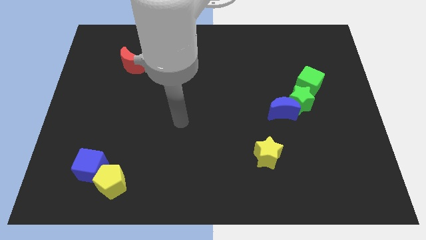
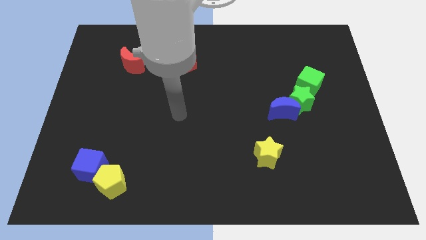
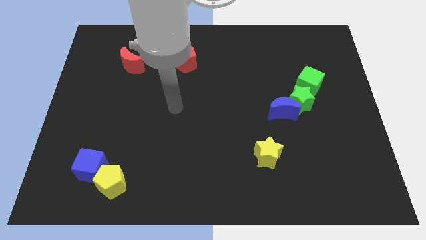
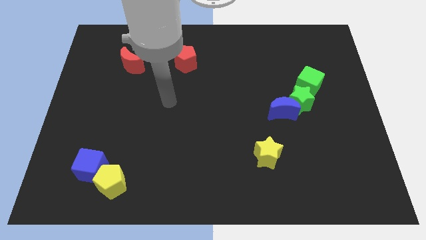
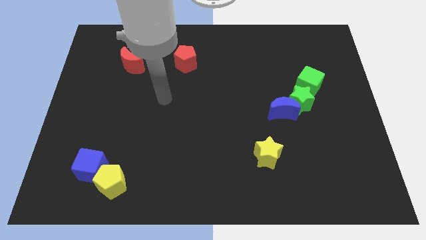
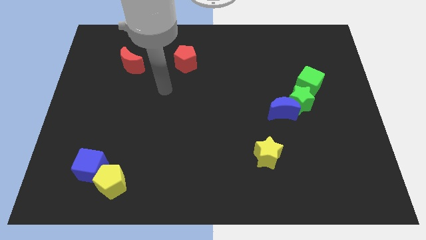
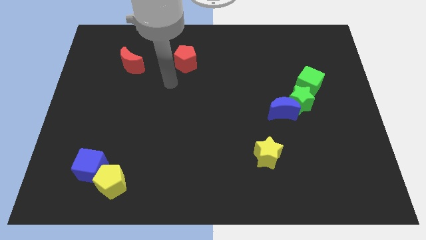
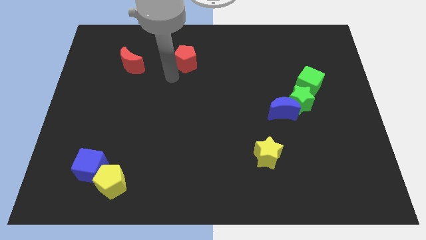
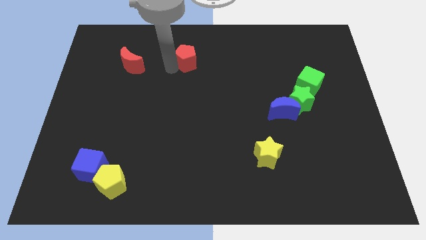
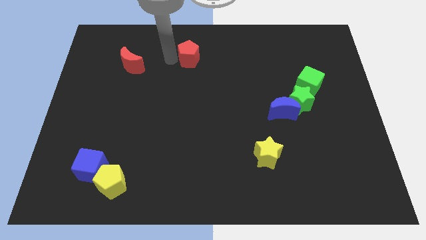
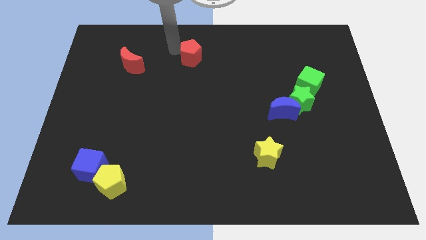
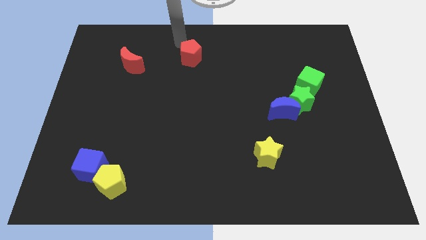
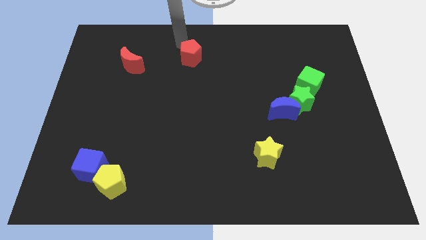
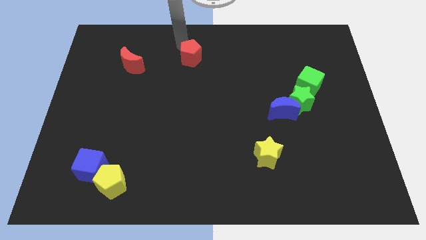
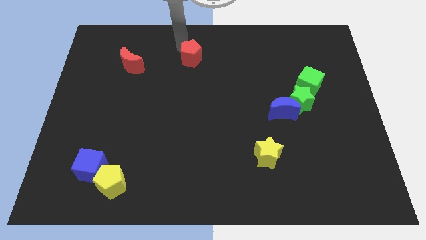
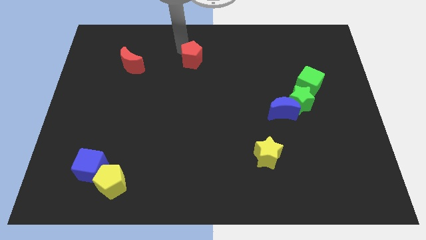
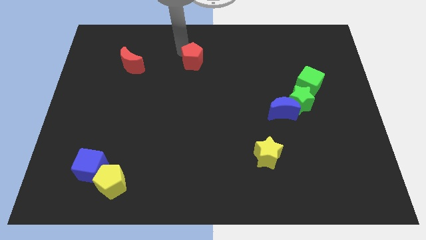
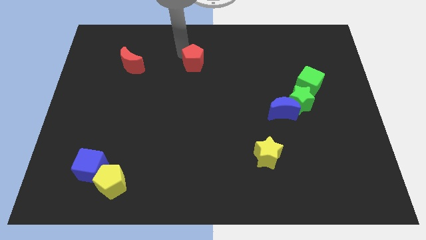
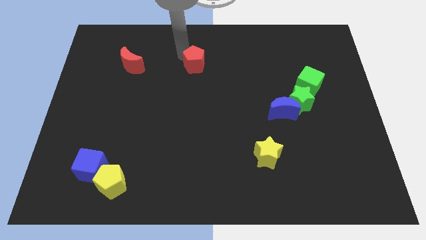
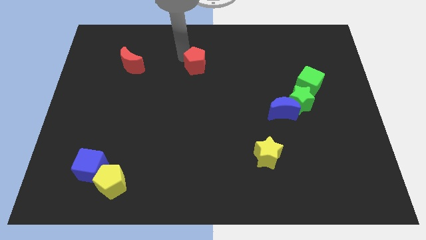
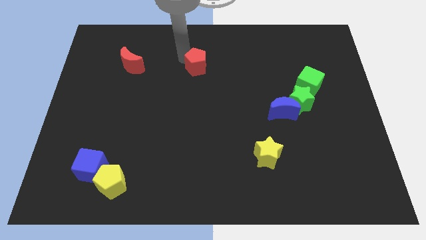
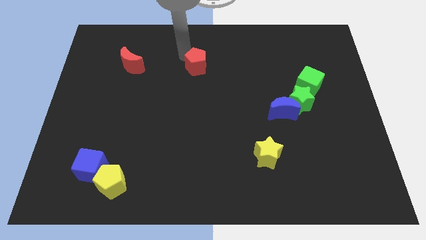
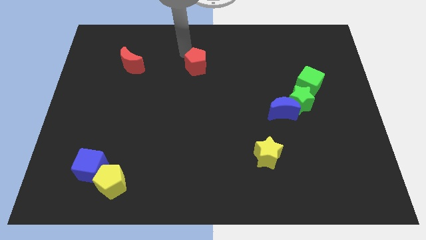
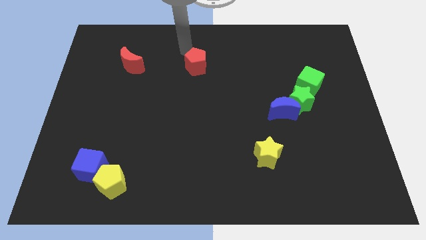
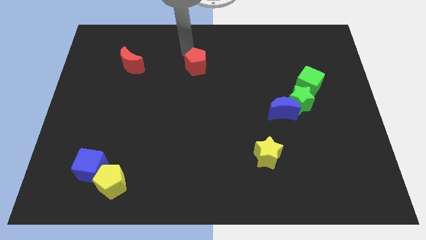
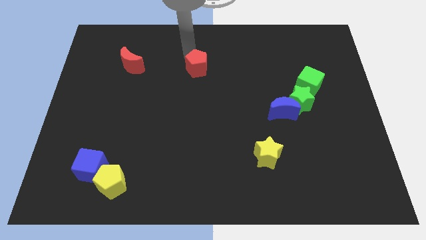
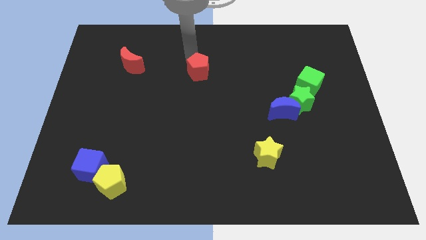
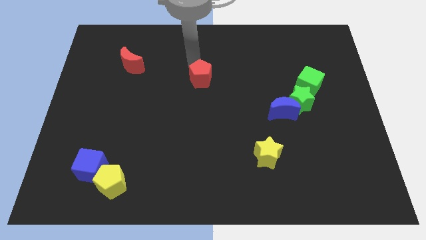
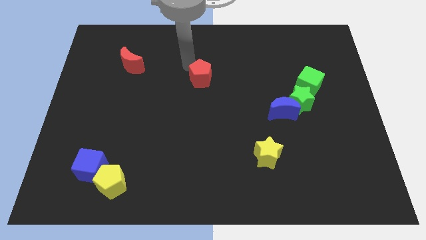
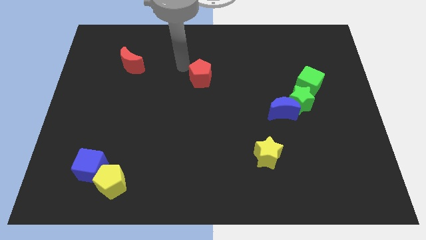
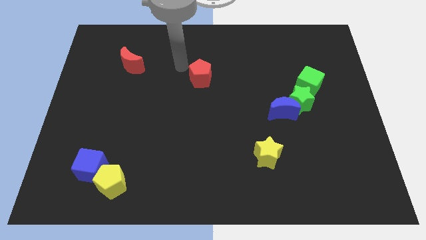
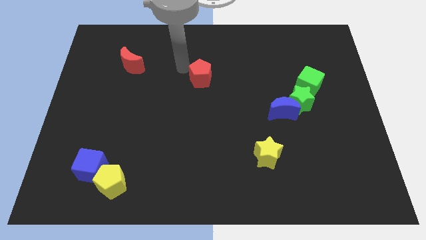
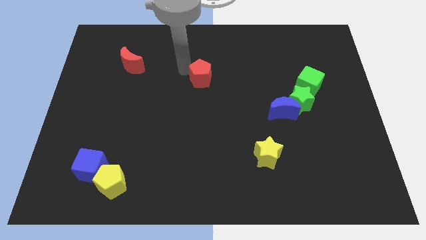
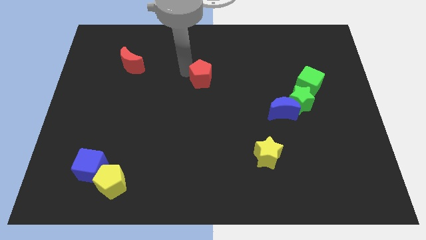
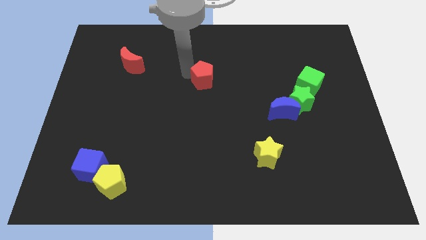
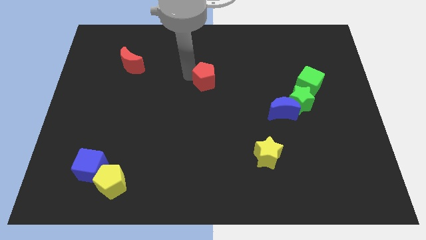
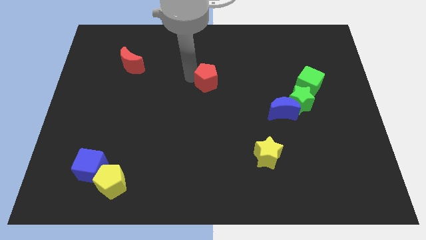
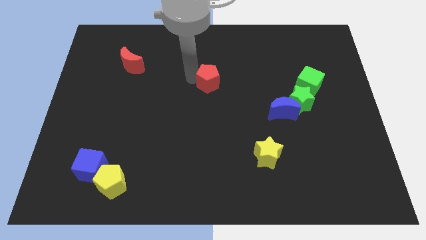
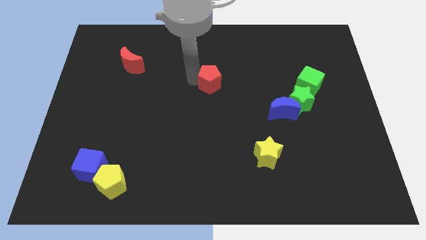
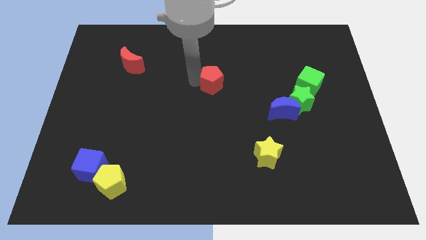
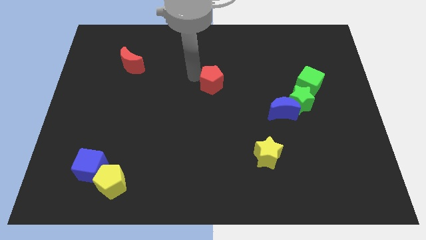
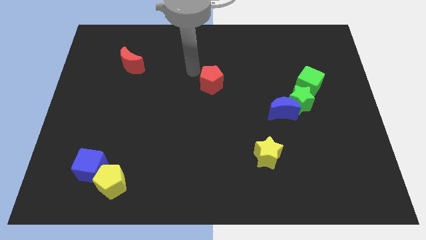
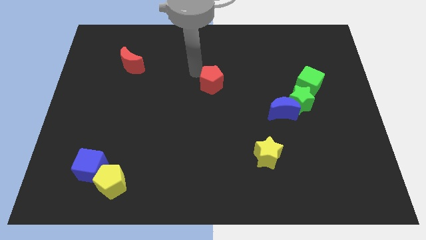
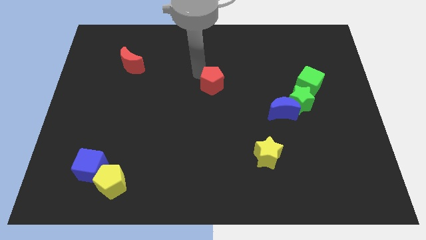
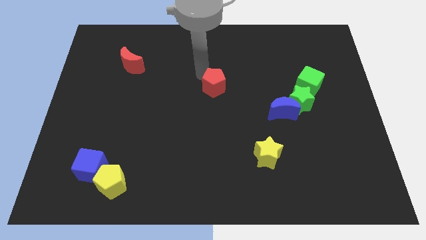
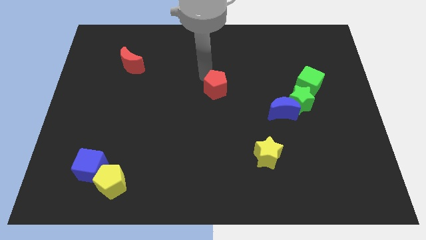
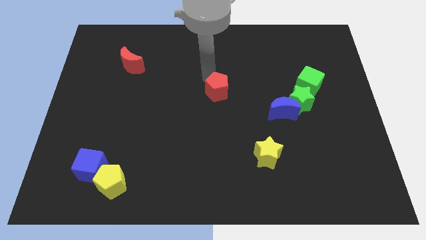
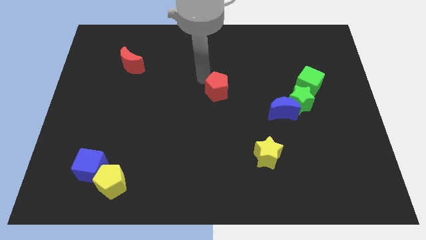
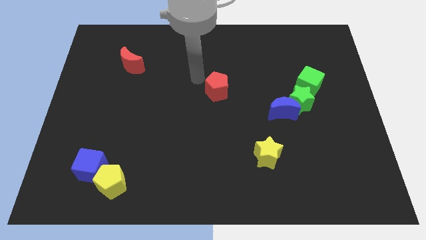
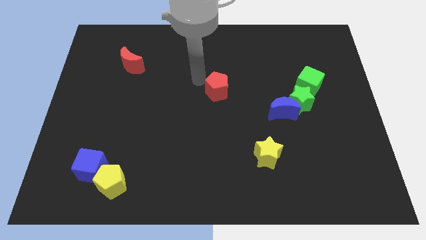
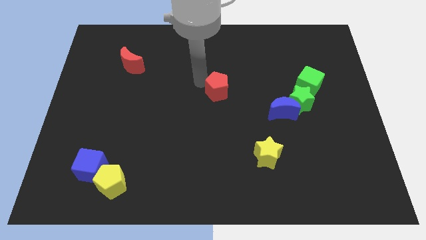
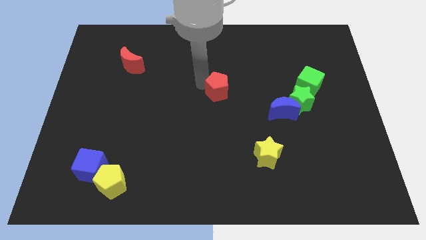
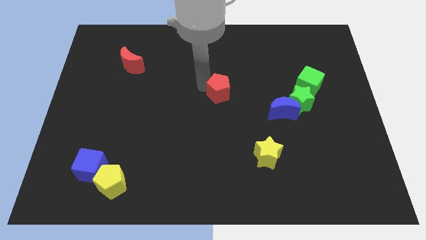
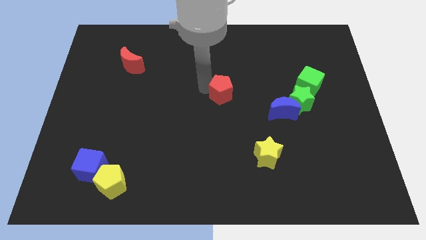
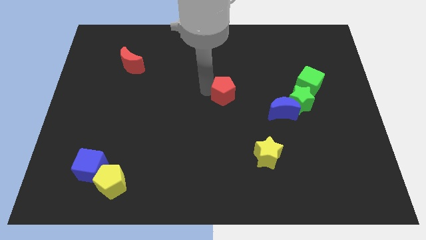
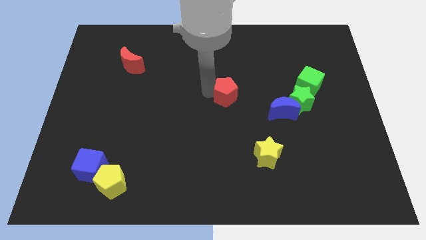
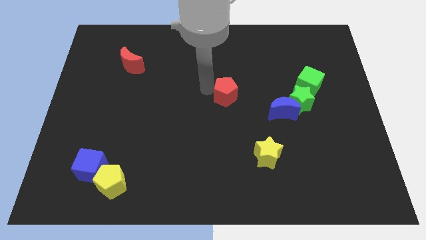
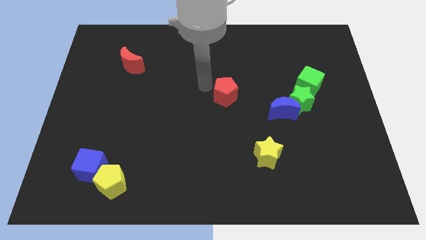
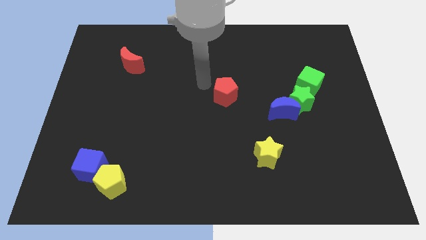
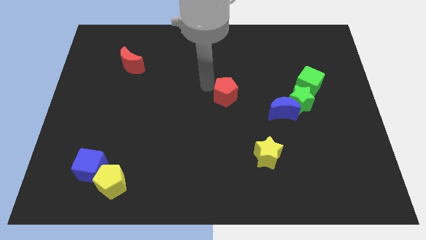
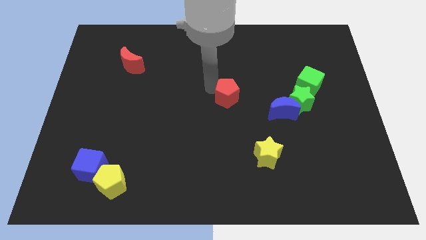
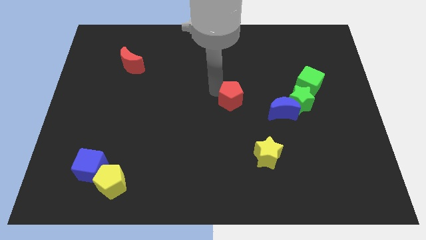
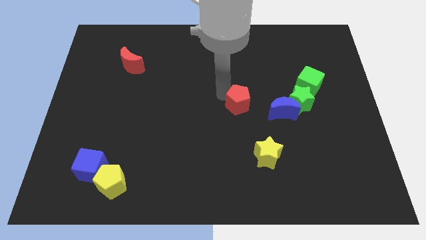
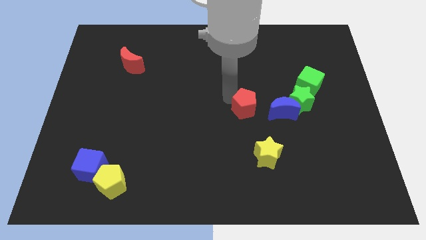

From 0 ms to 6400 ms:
push the red pentagon downwards and then to the right

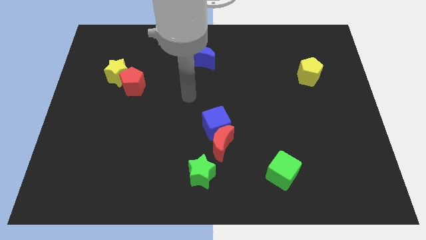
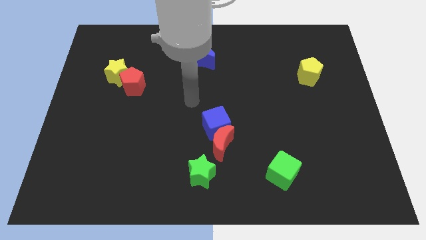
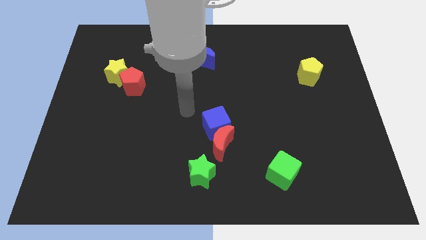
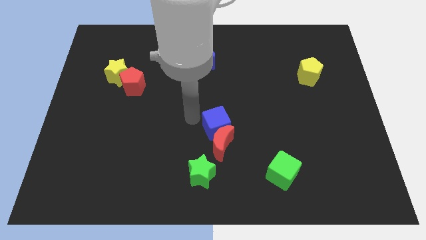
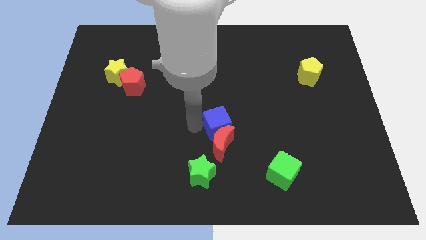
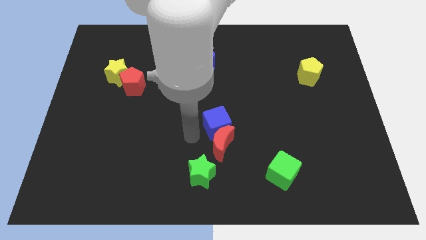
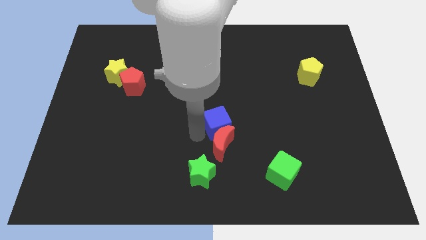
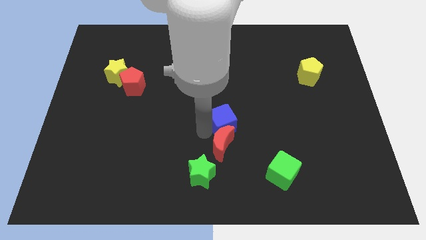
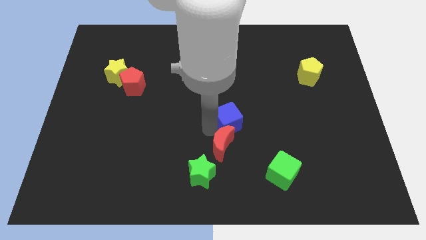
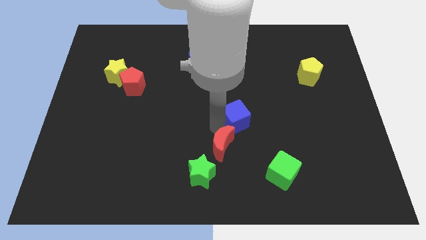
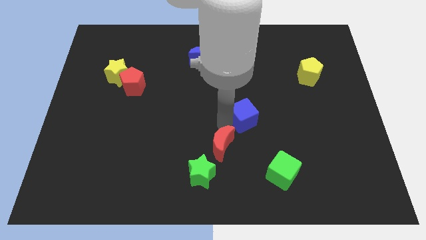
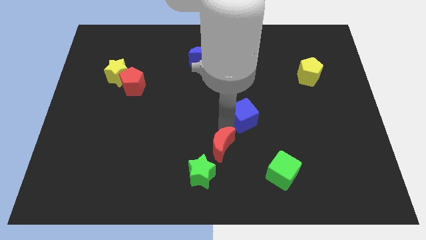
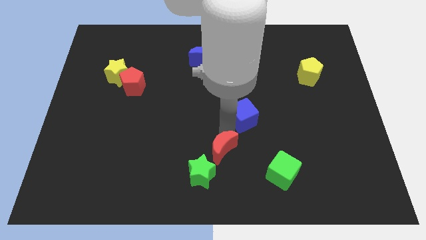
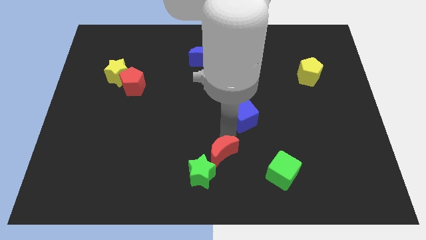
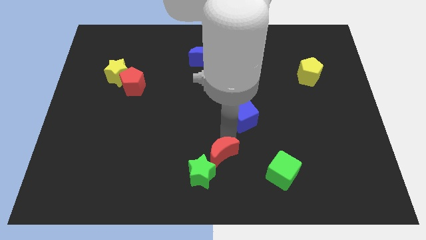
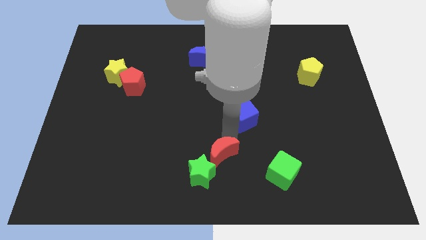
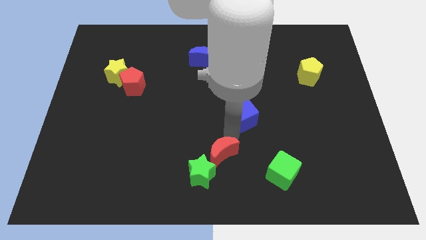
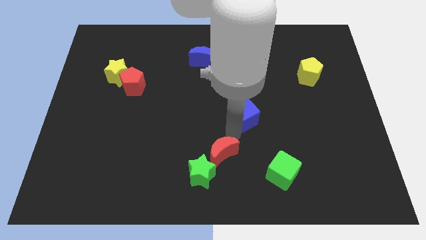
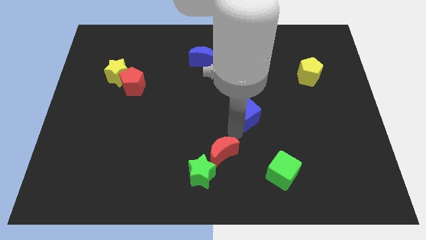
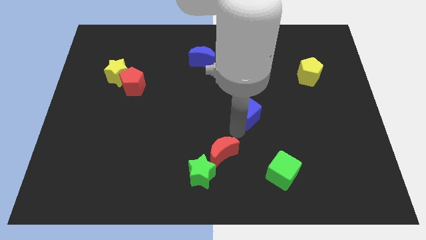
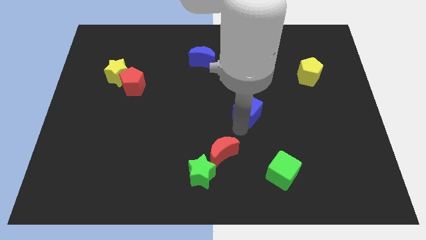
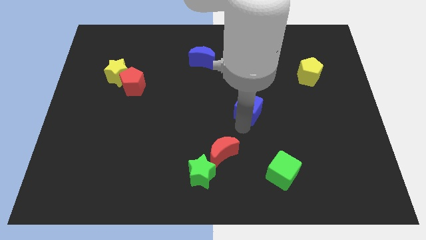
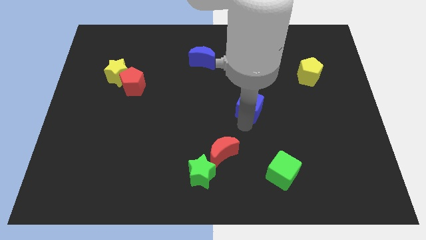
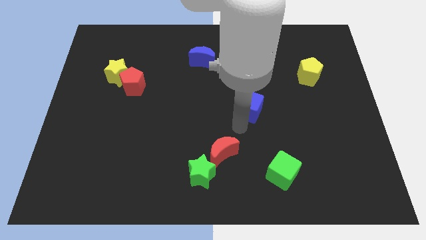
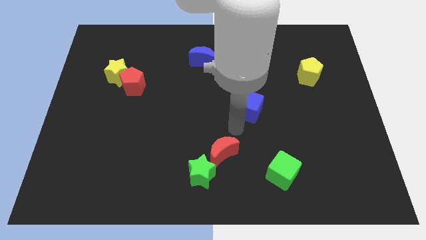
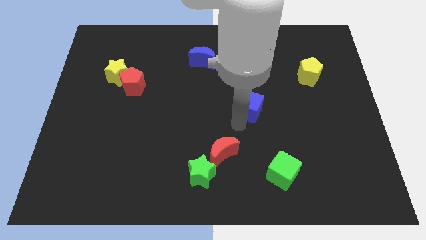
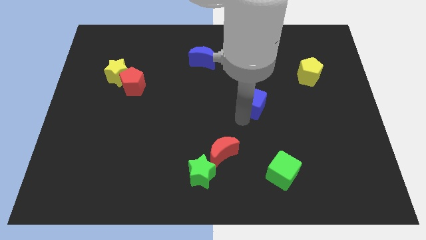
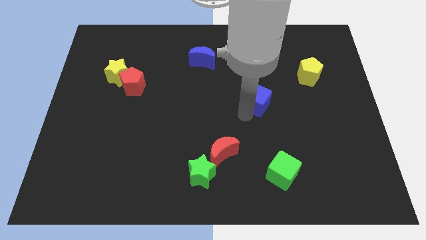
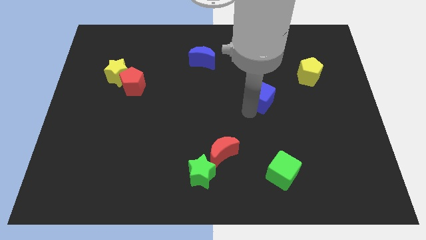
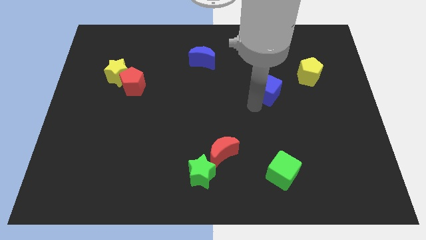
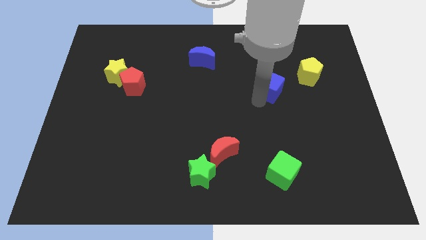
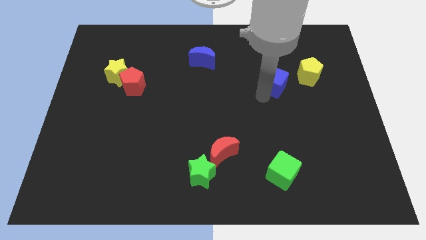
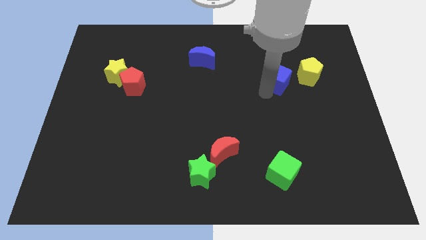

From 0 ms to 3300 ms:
slide the blue cube up and to the right
